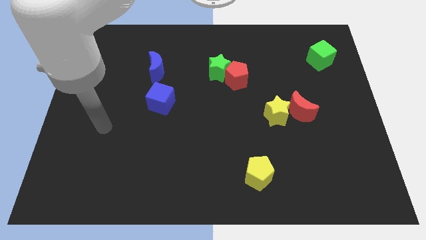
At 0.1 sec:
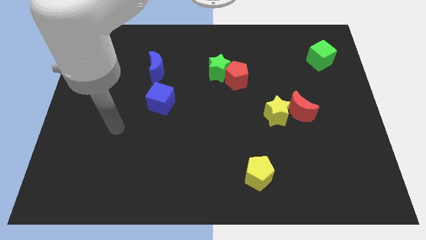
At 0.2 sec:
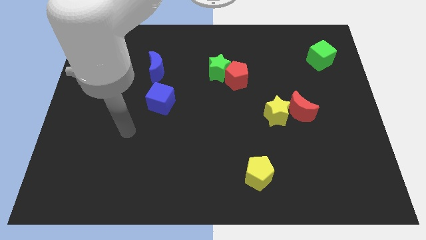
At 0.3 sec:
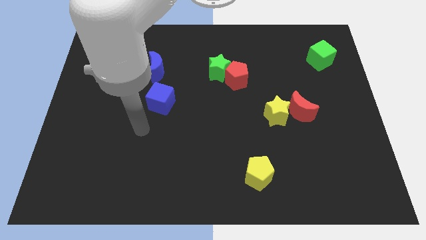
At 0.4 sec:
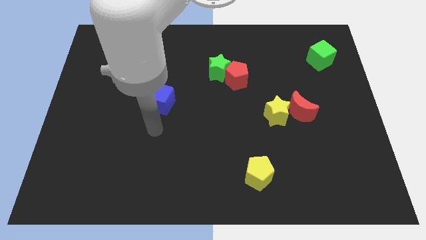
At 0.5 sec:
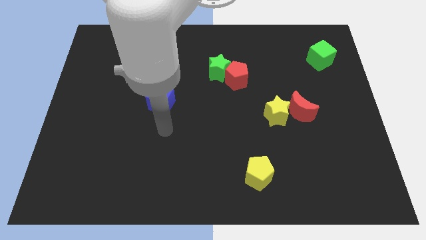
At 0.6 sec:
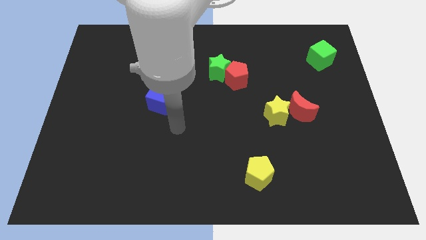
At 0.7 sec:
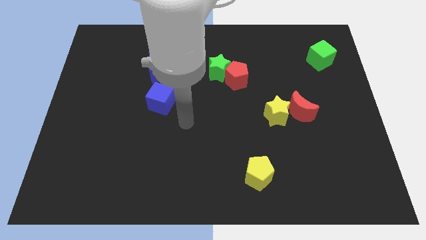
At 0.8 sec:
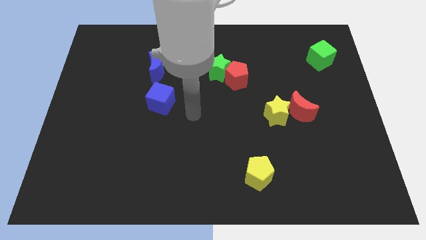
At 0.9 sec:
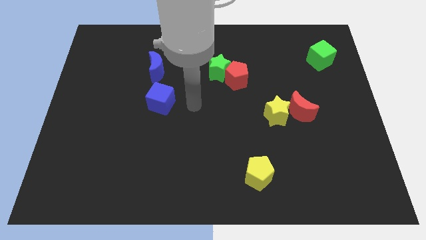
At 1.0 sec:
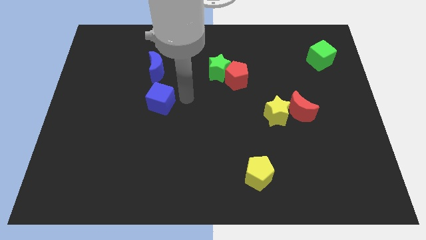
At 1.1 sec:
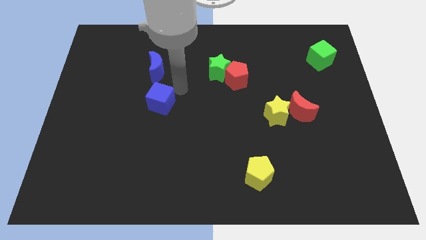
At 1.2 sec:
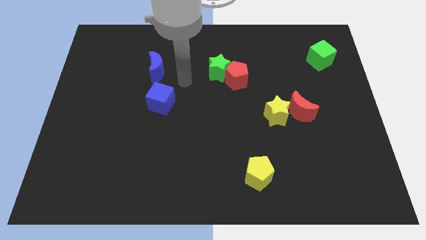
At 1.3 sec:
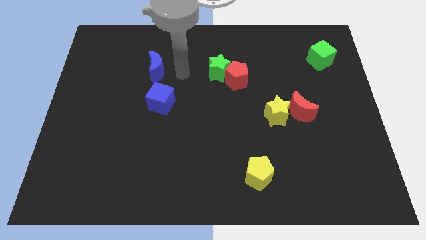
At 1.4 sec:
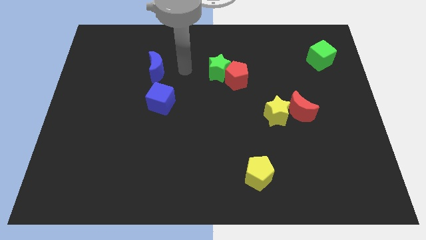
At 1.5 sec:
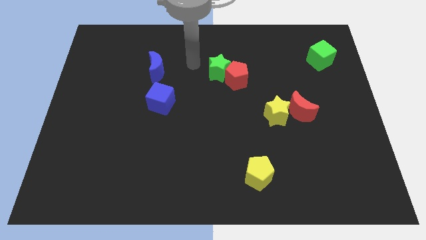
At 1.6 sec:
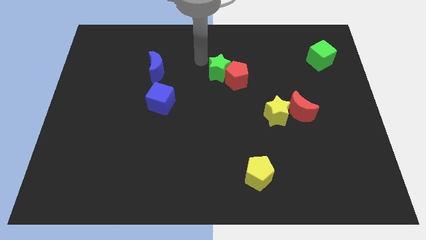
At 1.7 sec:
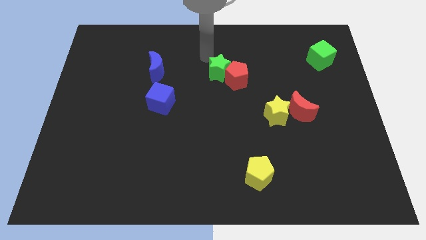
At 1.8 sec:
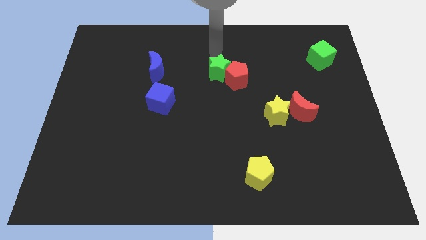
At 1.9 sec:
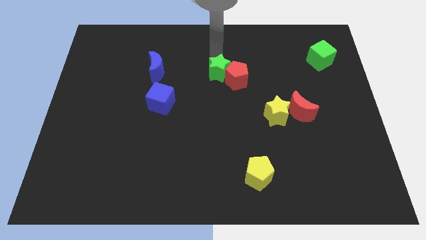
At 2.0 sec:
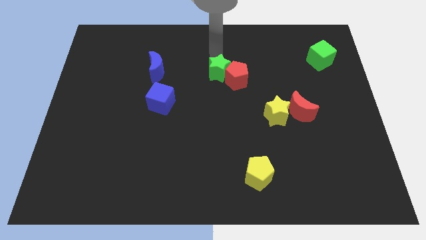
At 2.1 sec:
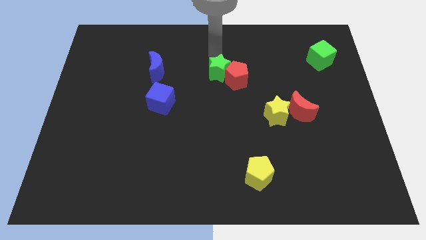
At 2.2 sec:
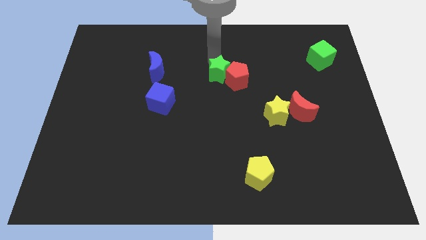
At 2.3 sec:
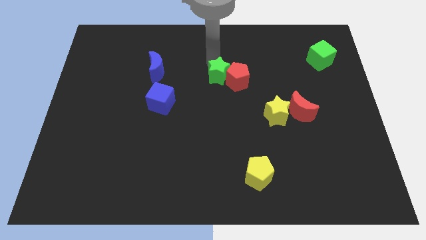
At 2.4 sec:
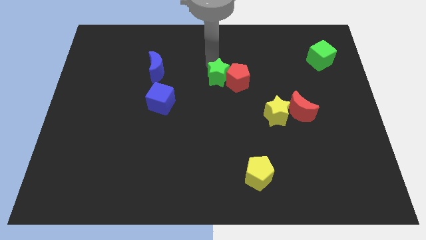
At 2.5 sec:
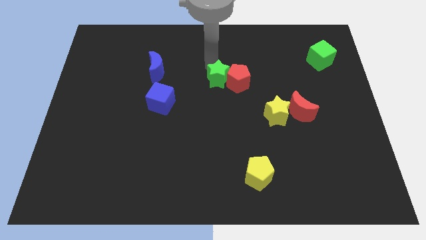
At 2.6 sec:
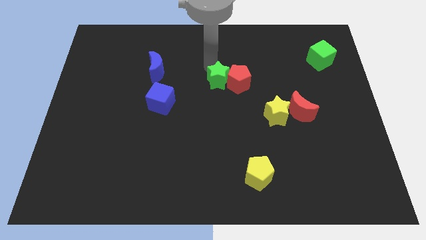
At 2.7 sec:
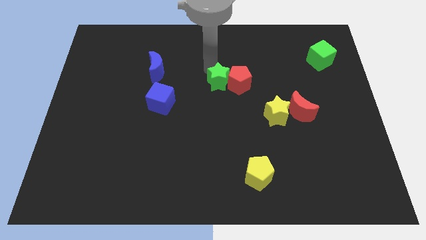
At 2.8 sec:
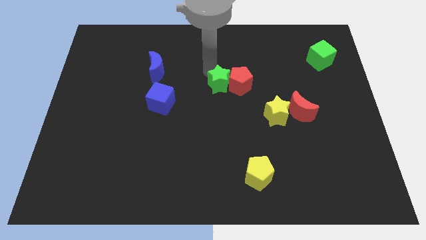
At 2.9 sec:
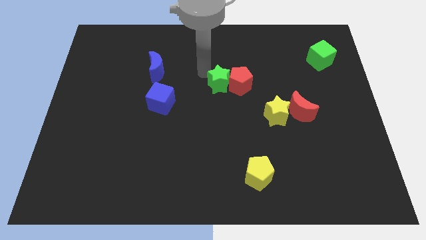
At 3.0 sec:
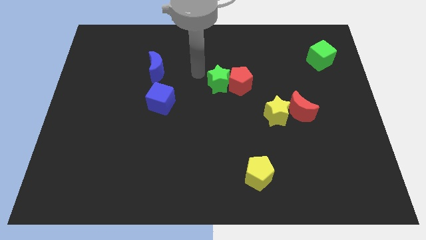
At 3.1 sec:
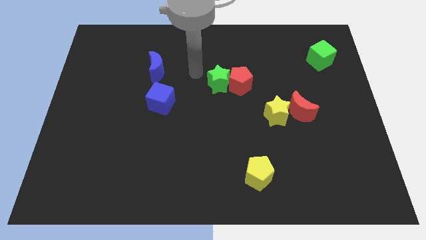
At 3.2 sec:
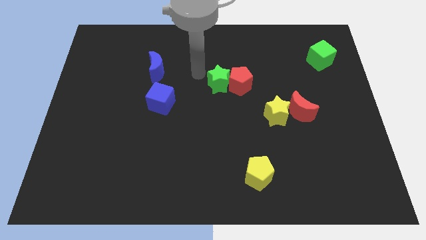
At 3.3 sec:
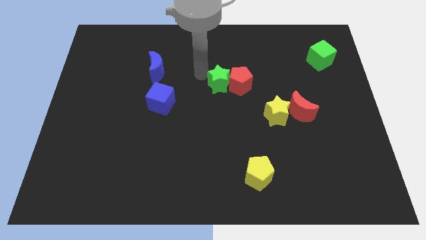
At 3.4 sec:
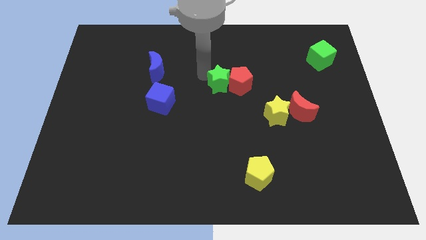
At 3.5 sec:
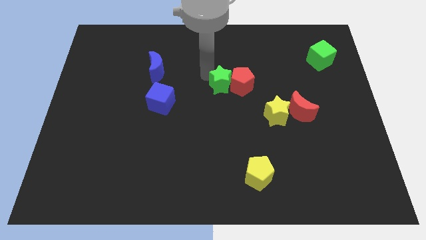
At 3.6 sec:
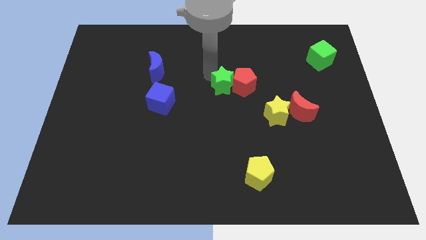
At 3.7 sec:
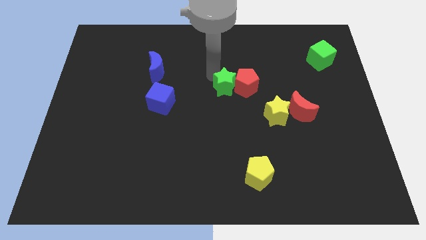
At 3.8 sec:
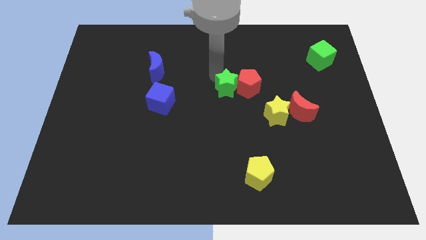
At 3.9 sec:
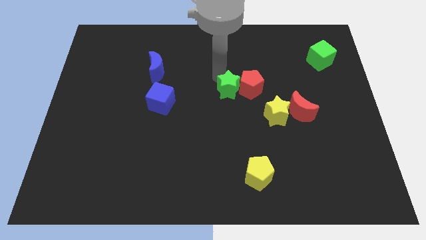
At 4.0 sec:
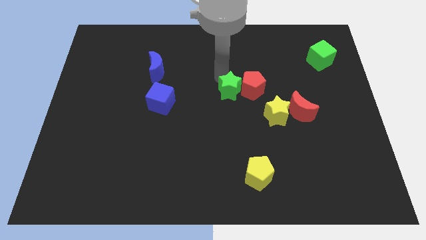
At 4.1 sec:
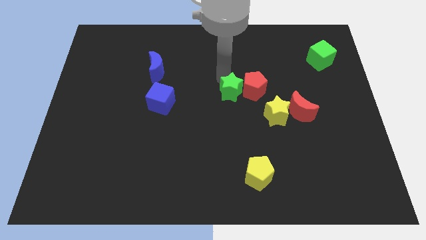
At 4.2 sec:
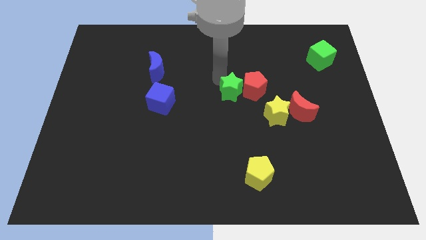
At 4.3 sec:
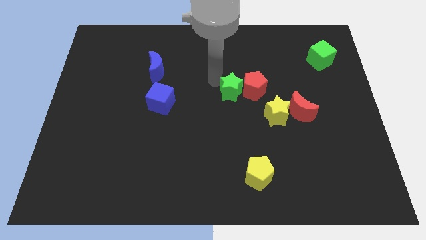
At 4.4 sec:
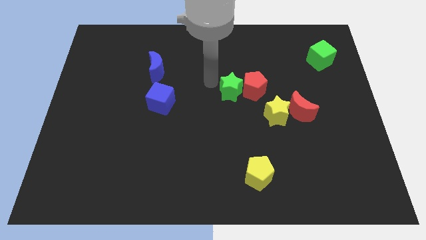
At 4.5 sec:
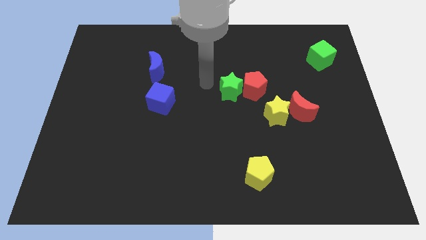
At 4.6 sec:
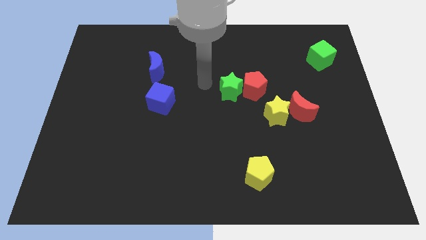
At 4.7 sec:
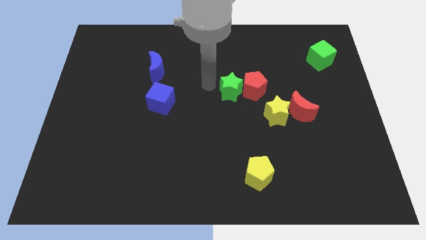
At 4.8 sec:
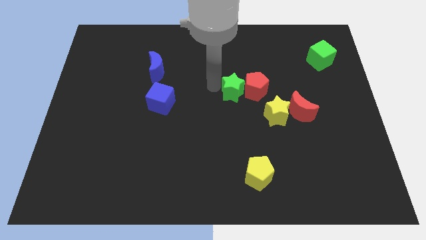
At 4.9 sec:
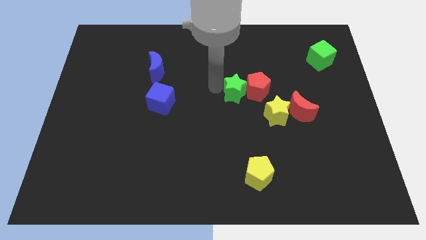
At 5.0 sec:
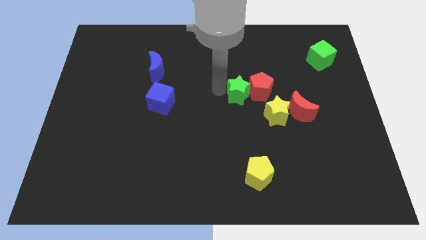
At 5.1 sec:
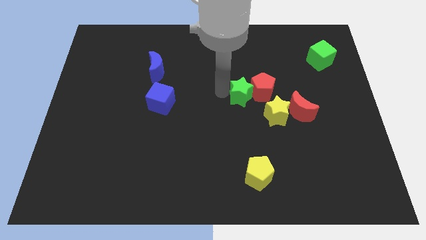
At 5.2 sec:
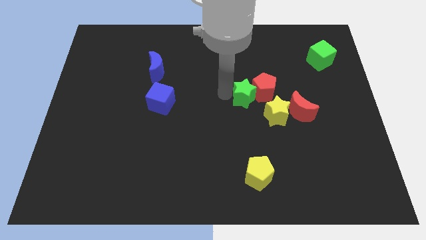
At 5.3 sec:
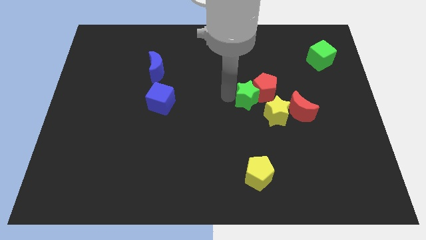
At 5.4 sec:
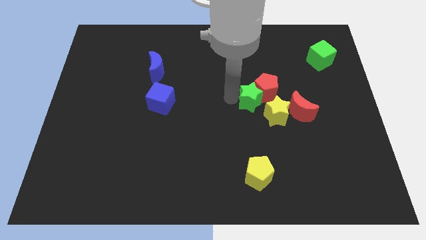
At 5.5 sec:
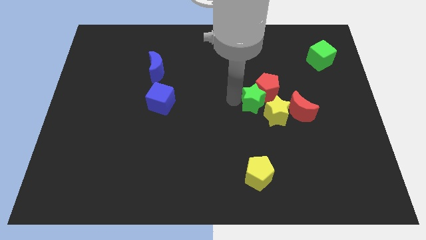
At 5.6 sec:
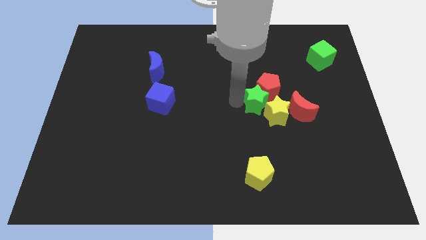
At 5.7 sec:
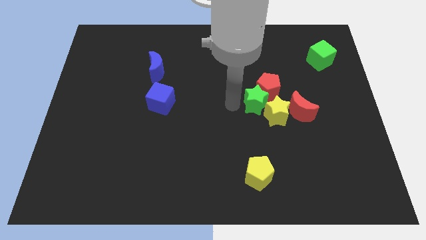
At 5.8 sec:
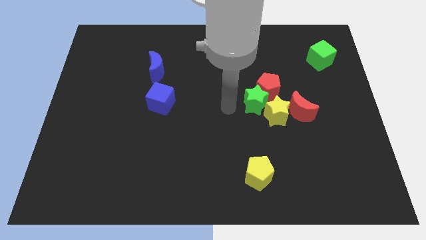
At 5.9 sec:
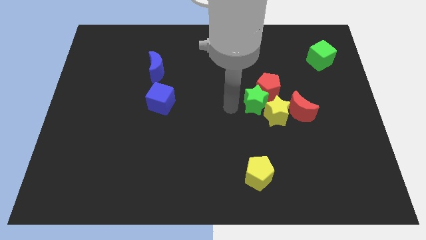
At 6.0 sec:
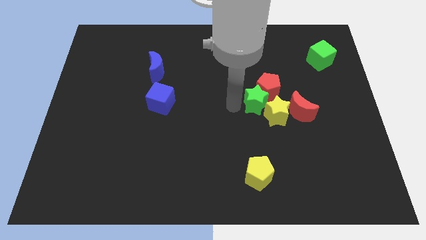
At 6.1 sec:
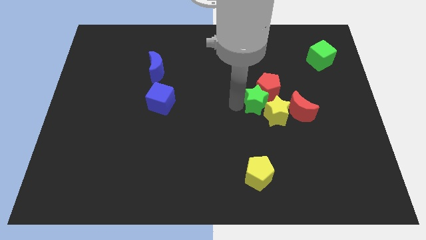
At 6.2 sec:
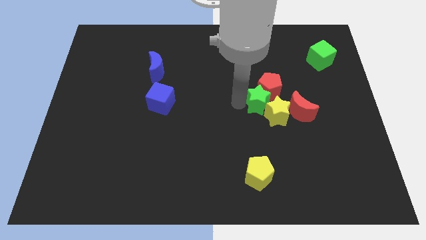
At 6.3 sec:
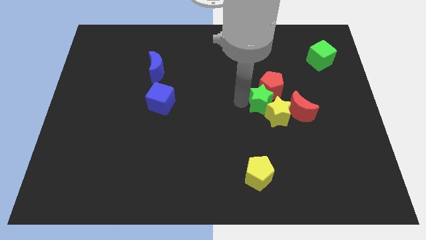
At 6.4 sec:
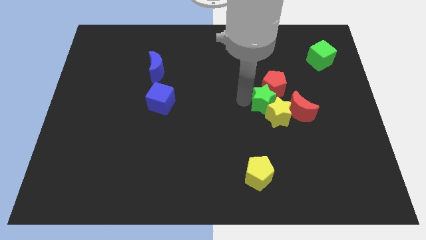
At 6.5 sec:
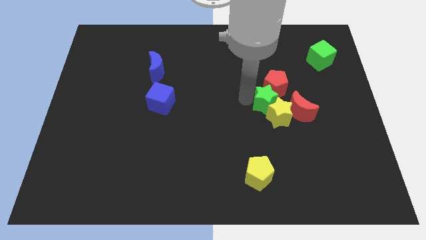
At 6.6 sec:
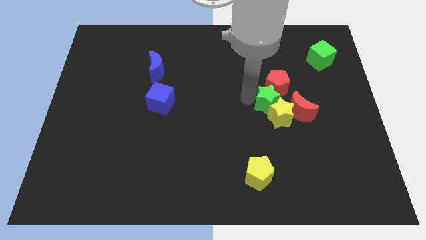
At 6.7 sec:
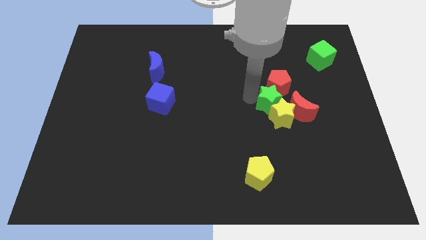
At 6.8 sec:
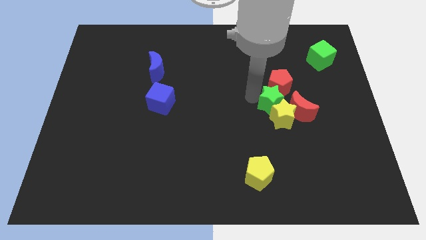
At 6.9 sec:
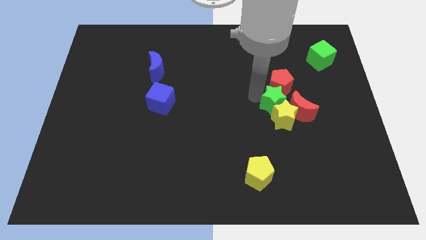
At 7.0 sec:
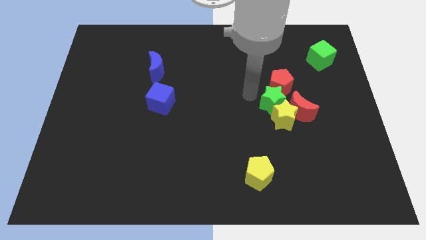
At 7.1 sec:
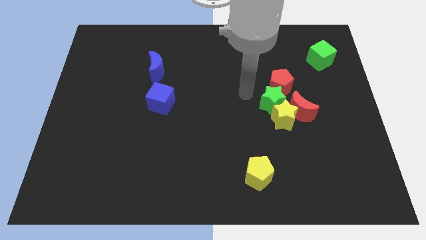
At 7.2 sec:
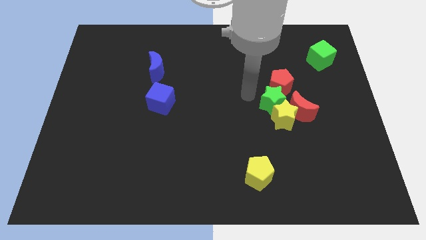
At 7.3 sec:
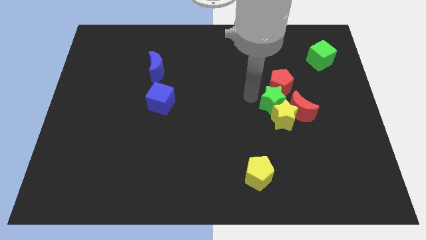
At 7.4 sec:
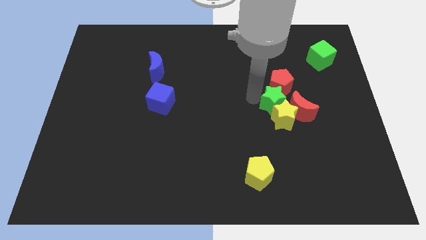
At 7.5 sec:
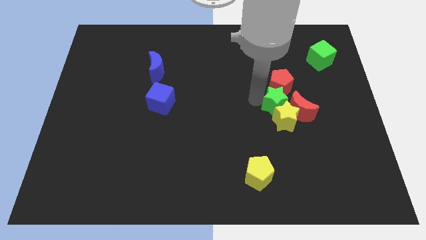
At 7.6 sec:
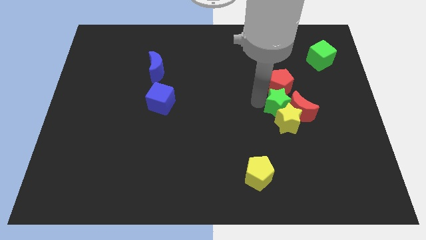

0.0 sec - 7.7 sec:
put the green star next to the red moon
